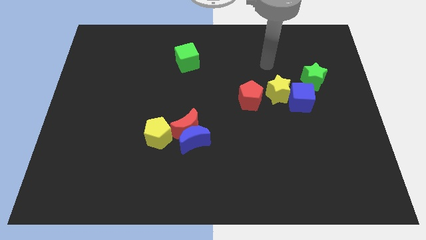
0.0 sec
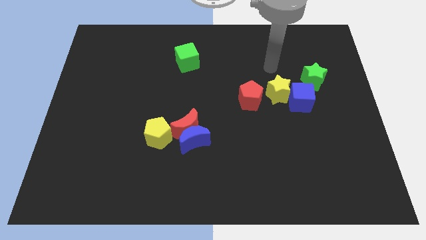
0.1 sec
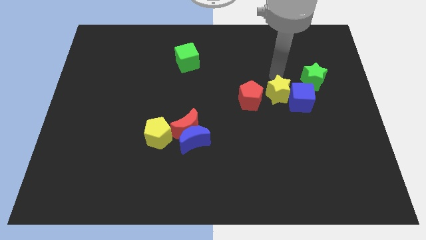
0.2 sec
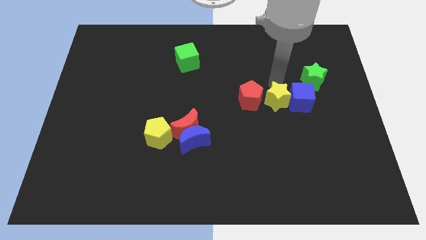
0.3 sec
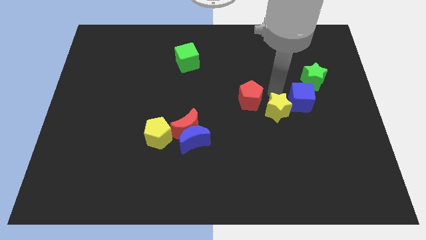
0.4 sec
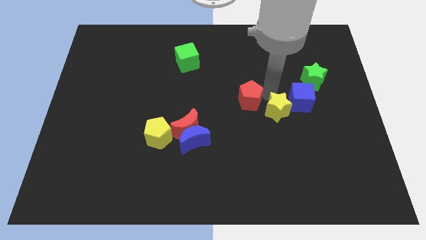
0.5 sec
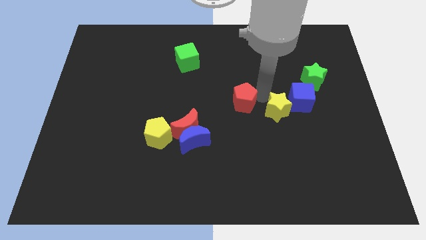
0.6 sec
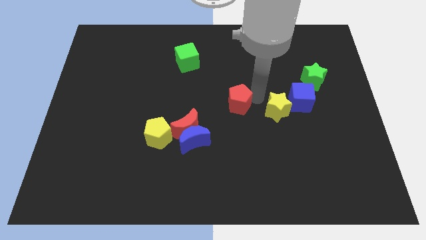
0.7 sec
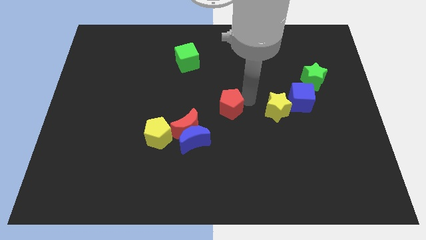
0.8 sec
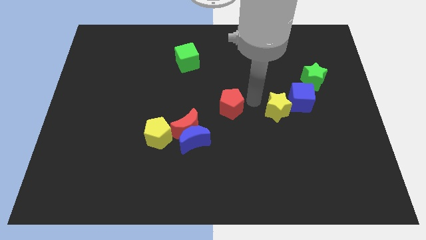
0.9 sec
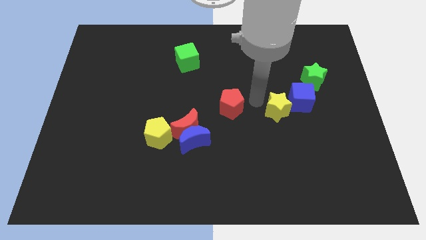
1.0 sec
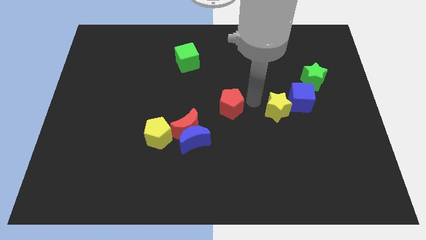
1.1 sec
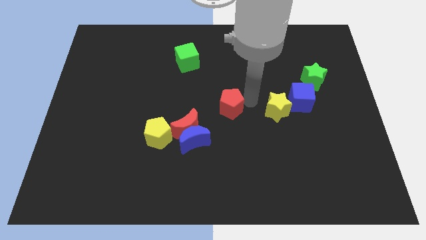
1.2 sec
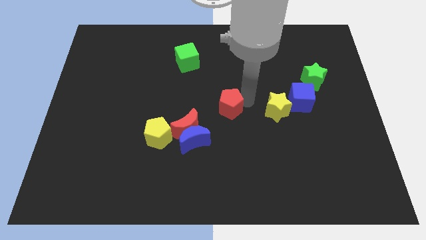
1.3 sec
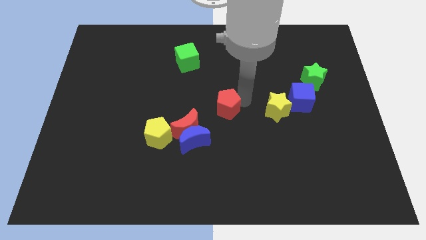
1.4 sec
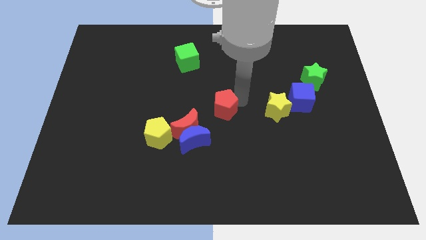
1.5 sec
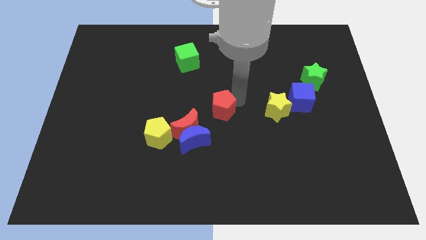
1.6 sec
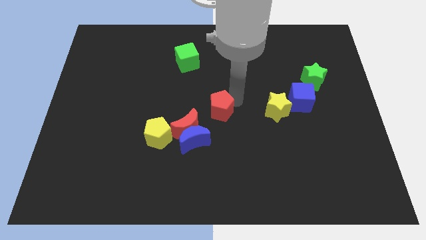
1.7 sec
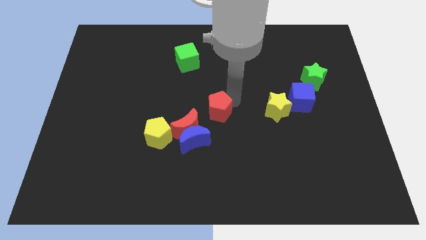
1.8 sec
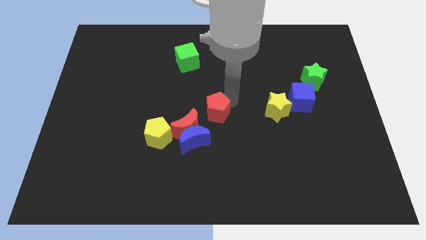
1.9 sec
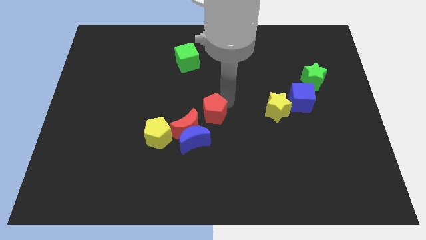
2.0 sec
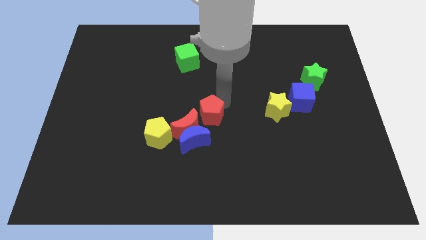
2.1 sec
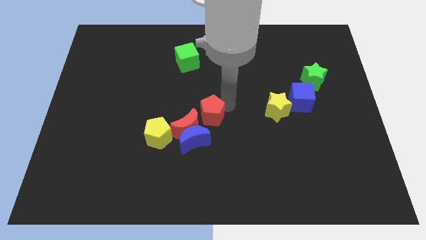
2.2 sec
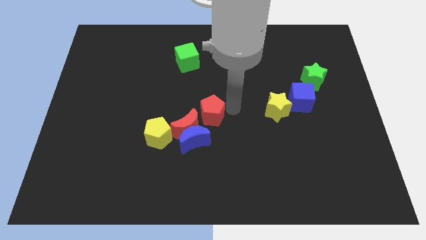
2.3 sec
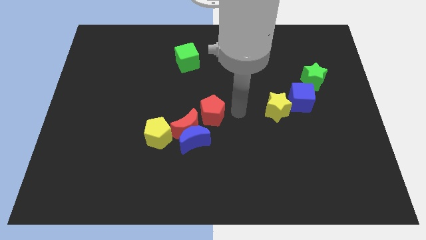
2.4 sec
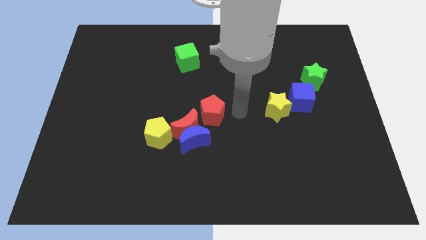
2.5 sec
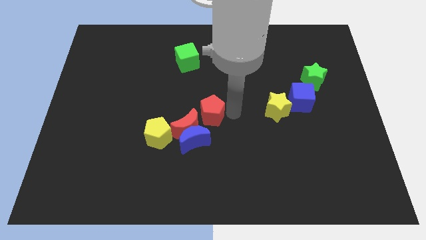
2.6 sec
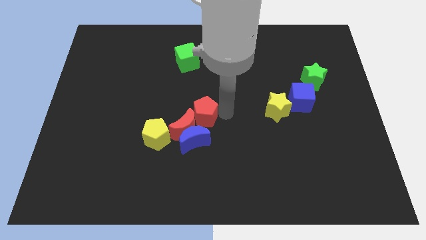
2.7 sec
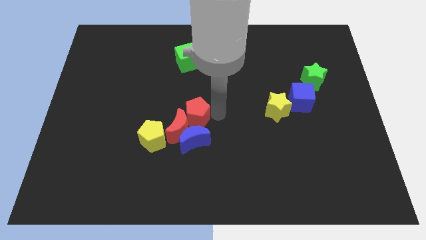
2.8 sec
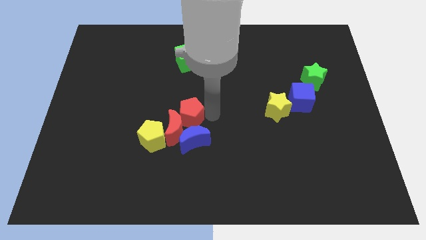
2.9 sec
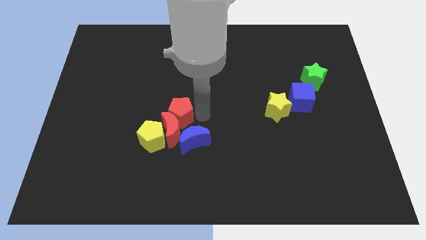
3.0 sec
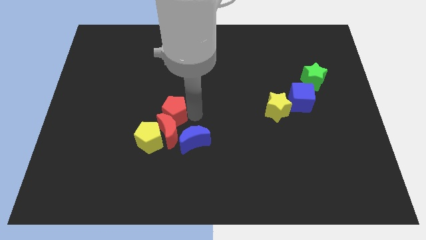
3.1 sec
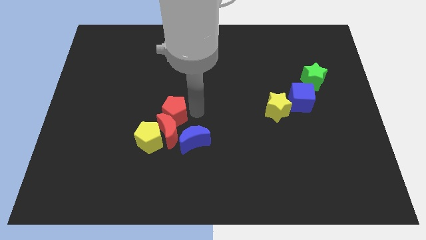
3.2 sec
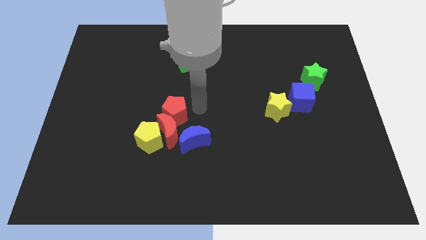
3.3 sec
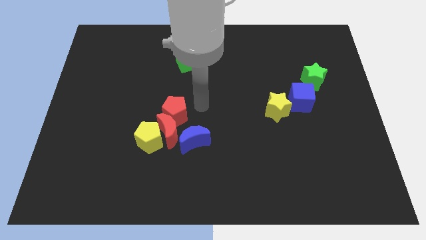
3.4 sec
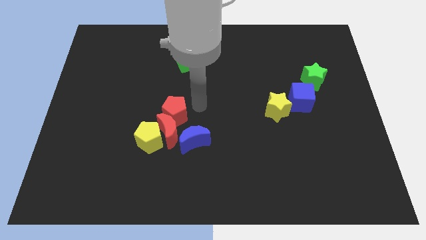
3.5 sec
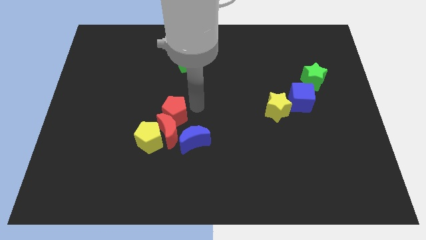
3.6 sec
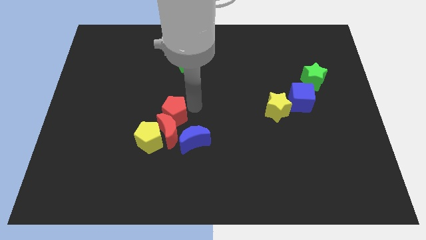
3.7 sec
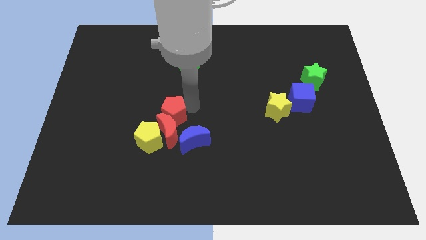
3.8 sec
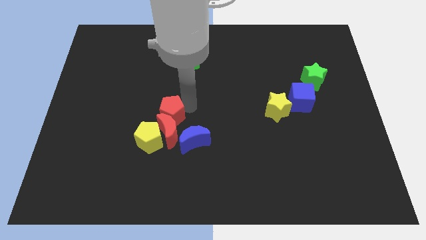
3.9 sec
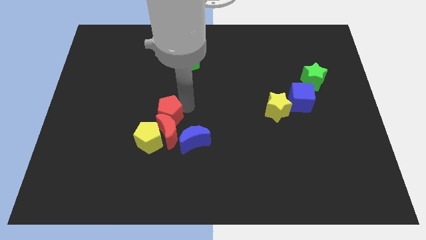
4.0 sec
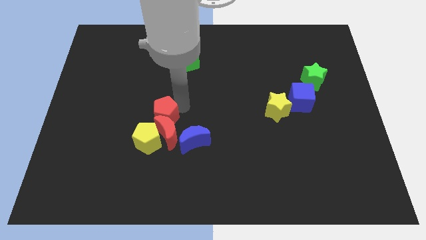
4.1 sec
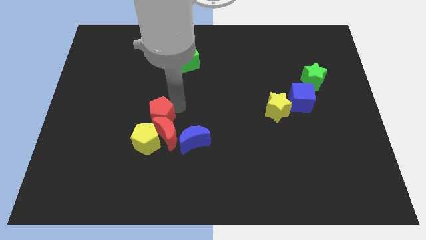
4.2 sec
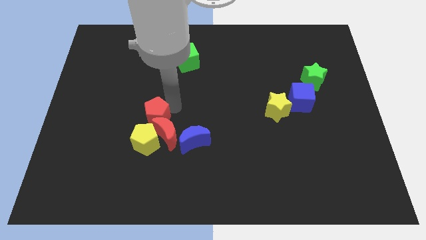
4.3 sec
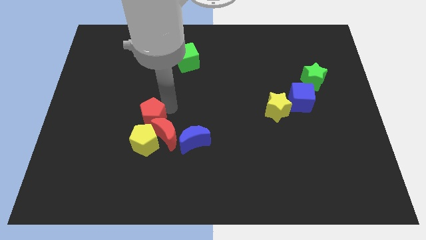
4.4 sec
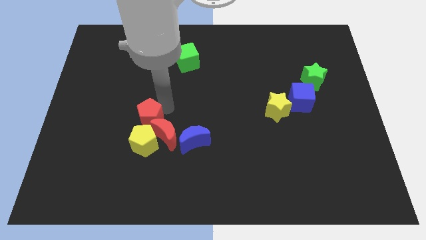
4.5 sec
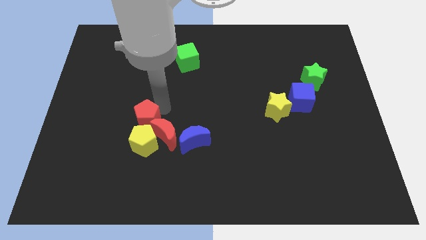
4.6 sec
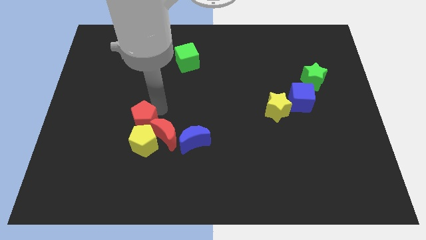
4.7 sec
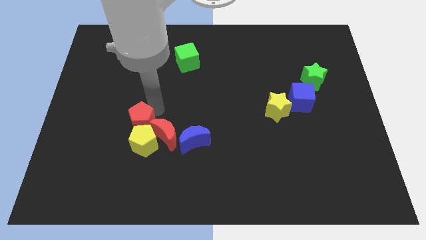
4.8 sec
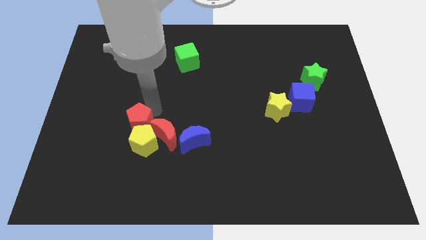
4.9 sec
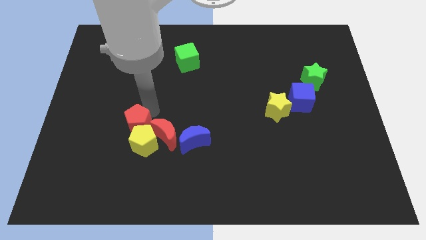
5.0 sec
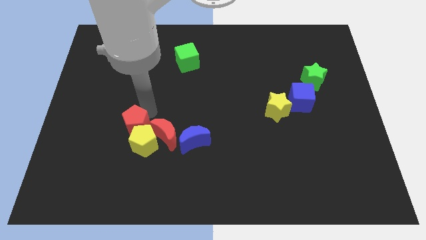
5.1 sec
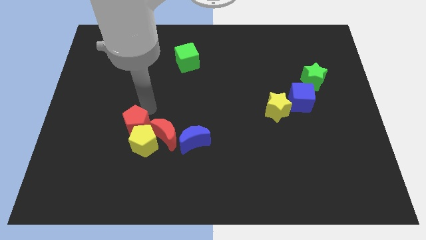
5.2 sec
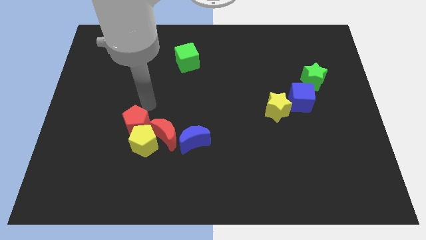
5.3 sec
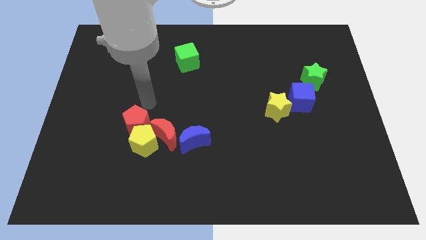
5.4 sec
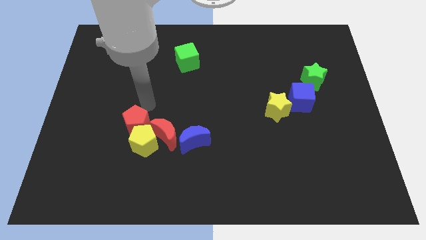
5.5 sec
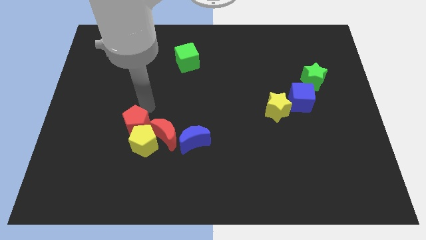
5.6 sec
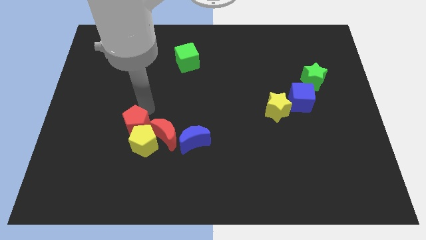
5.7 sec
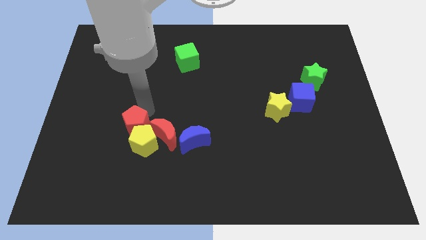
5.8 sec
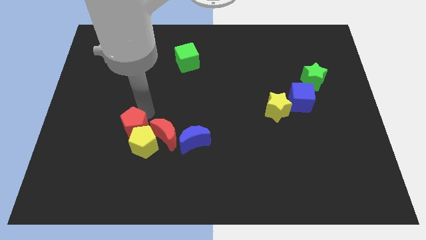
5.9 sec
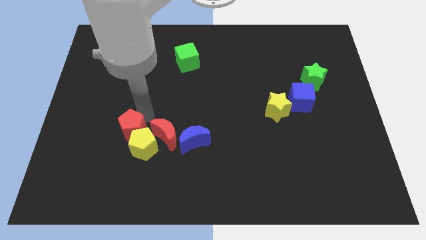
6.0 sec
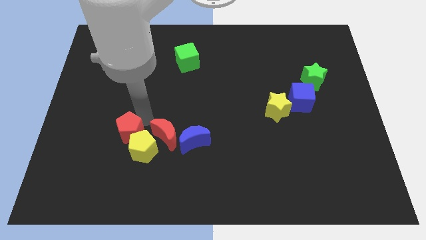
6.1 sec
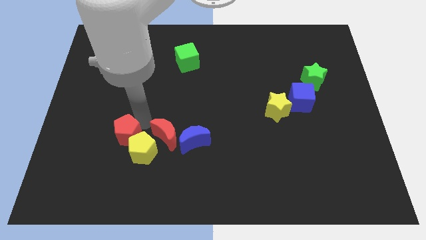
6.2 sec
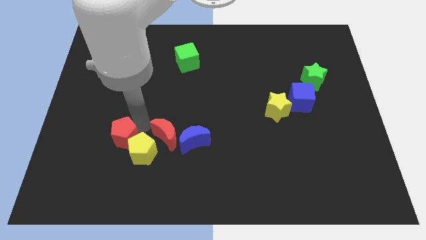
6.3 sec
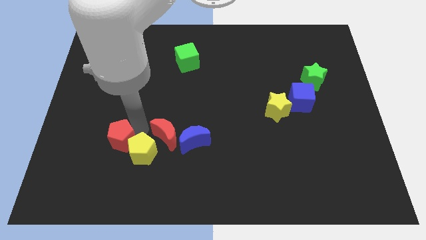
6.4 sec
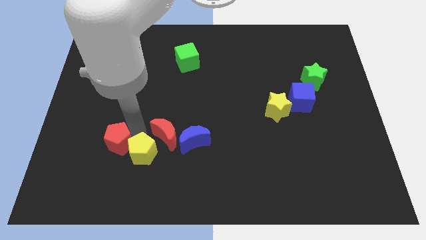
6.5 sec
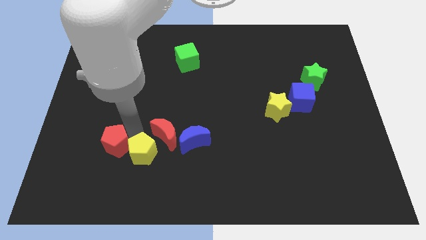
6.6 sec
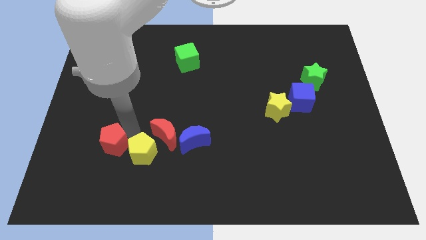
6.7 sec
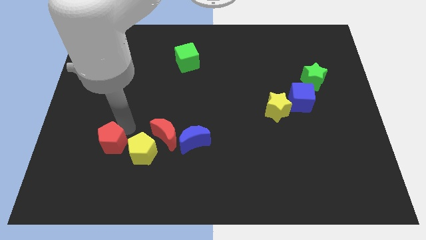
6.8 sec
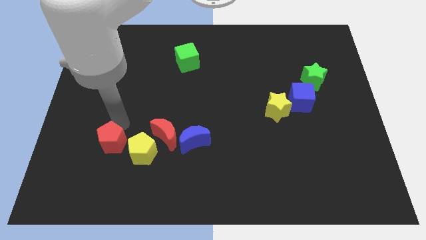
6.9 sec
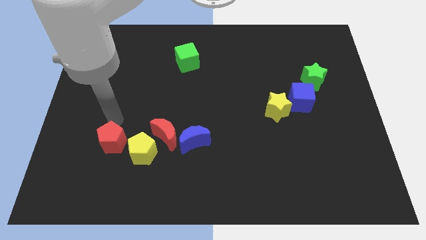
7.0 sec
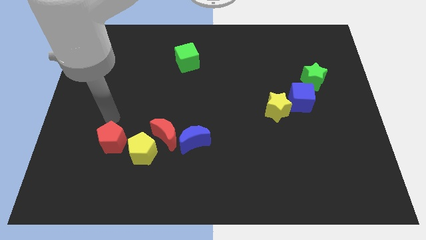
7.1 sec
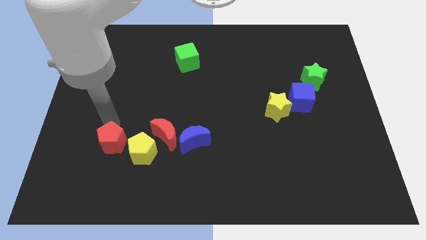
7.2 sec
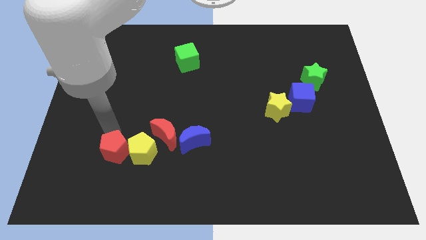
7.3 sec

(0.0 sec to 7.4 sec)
put the red pentagon diagonally down and to the left of the yellow pentagon

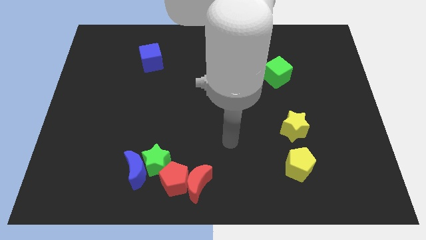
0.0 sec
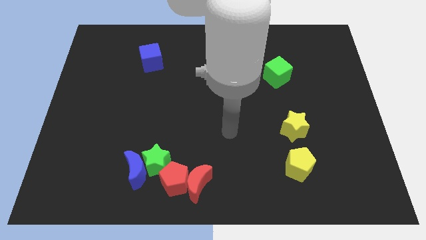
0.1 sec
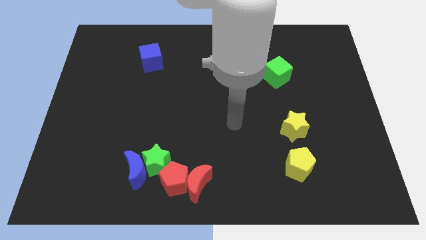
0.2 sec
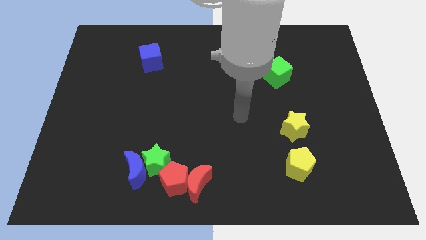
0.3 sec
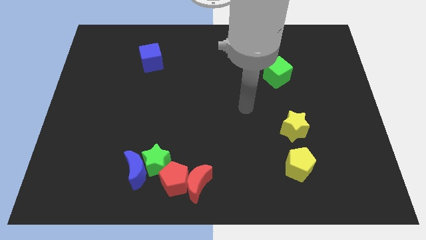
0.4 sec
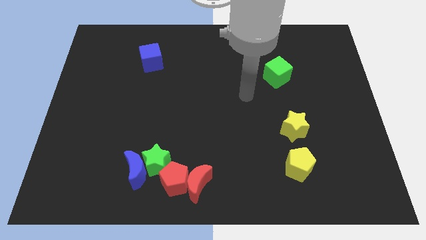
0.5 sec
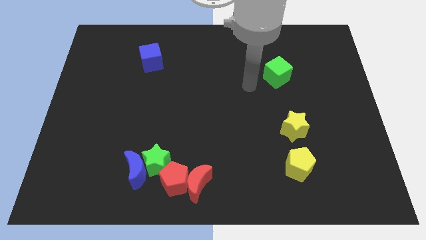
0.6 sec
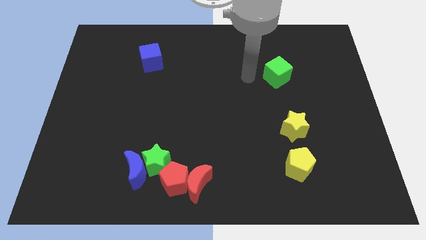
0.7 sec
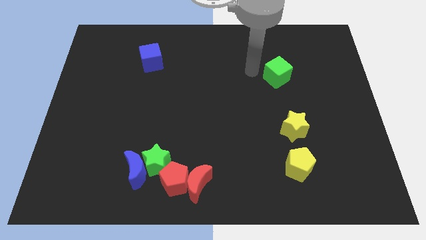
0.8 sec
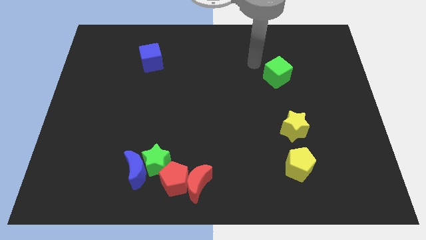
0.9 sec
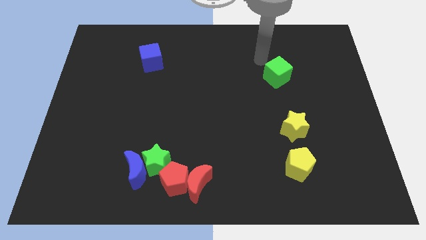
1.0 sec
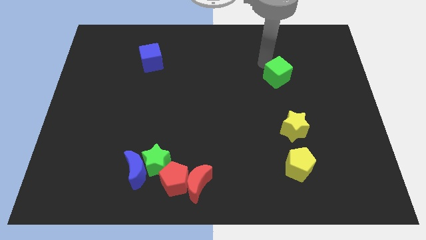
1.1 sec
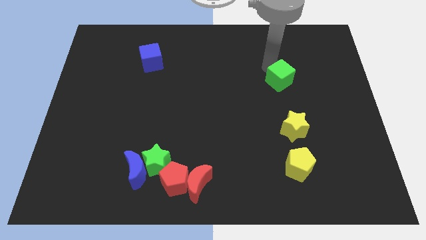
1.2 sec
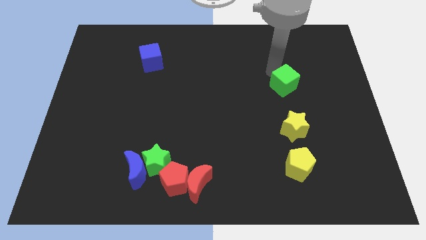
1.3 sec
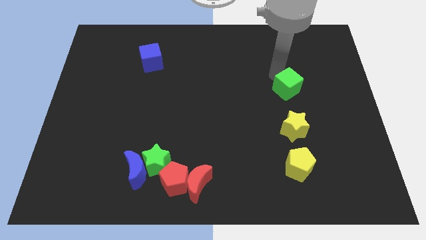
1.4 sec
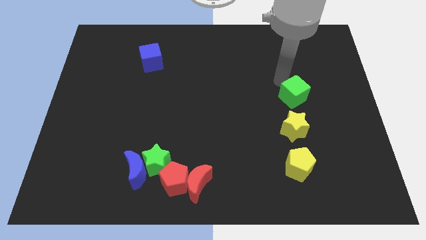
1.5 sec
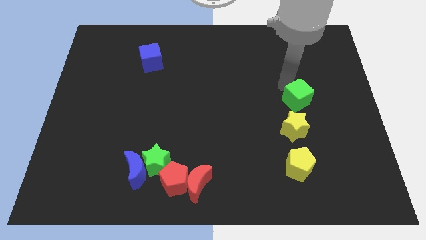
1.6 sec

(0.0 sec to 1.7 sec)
put the green cube to the top right of the yellow star
